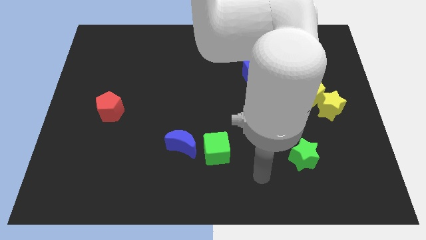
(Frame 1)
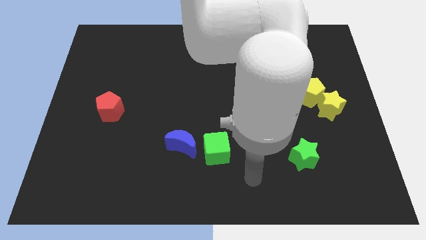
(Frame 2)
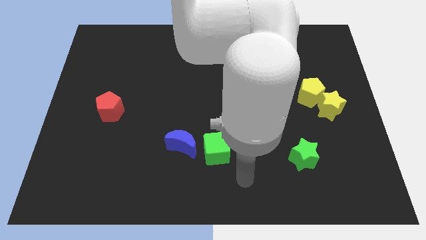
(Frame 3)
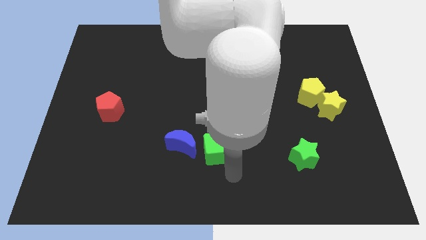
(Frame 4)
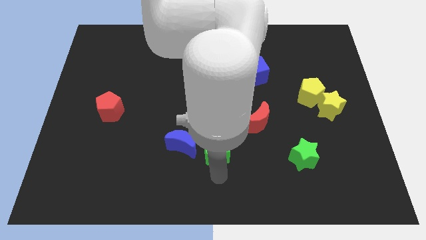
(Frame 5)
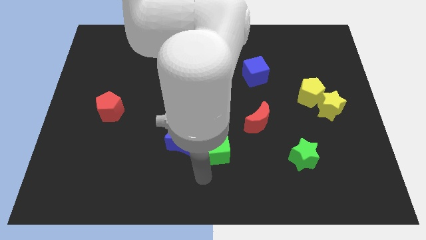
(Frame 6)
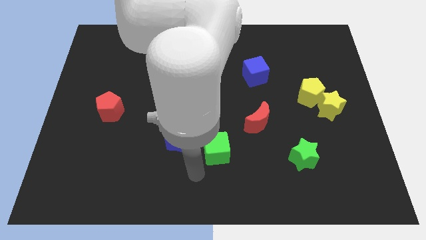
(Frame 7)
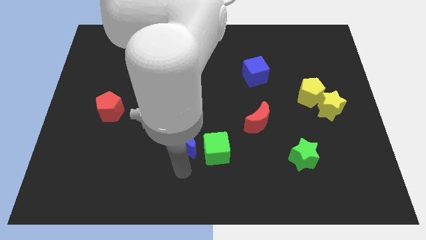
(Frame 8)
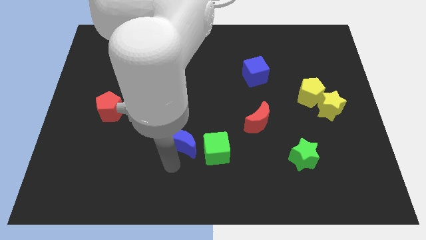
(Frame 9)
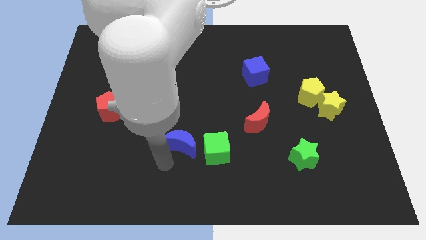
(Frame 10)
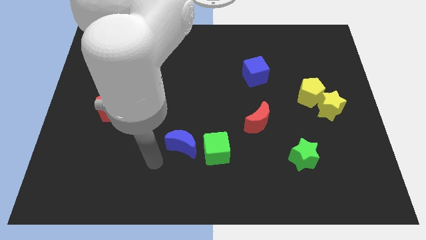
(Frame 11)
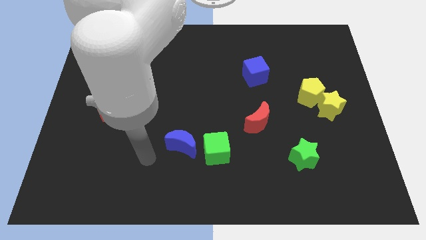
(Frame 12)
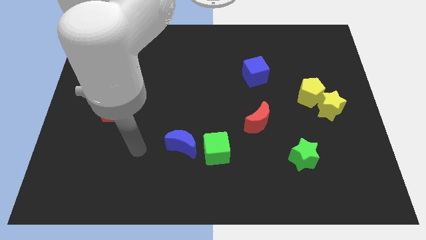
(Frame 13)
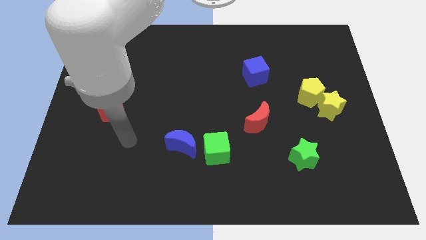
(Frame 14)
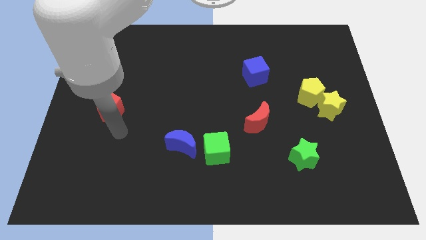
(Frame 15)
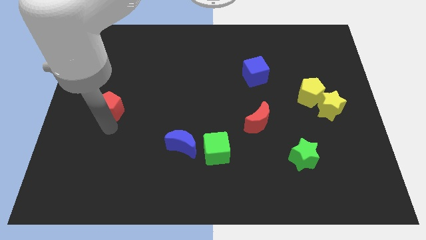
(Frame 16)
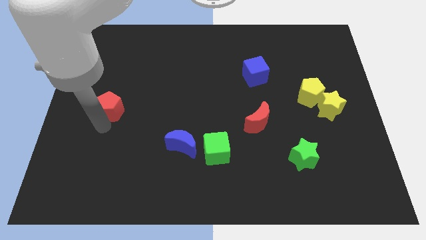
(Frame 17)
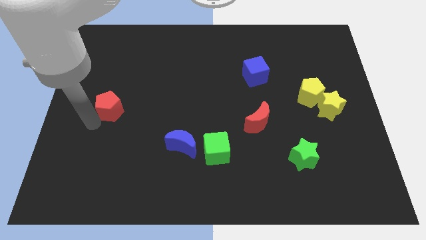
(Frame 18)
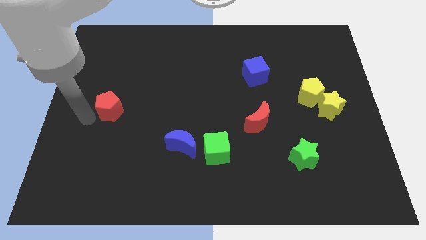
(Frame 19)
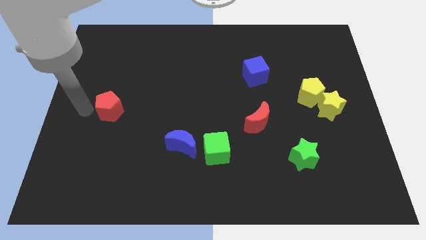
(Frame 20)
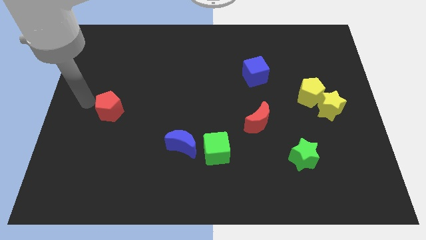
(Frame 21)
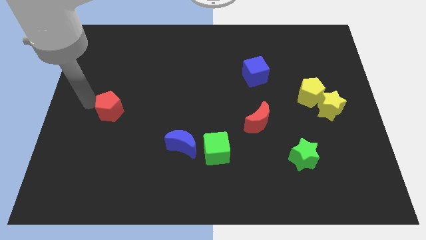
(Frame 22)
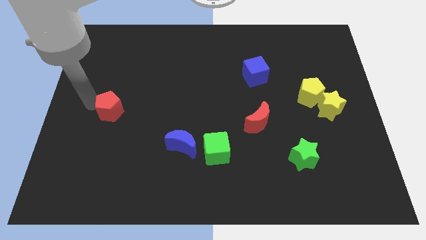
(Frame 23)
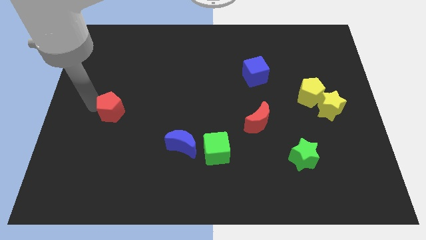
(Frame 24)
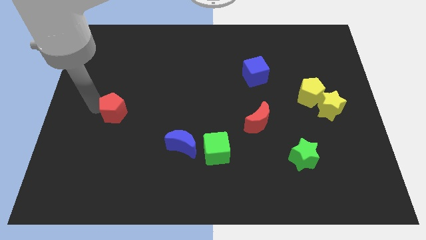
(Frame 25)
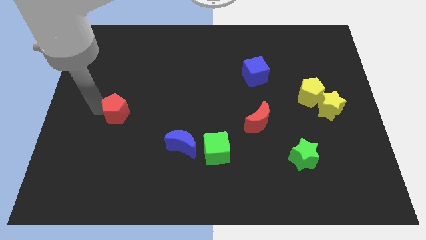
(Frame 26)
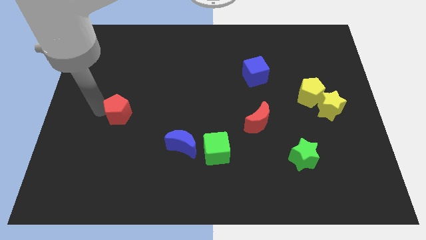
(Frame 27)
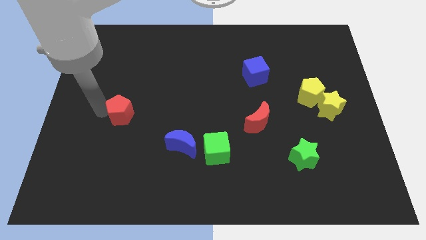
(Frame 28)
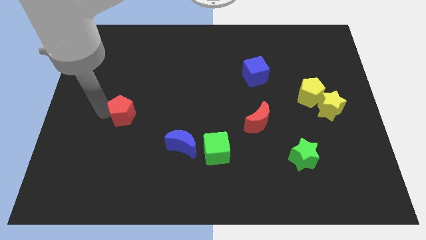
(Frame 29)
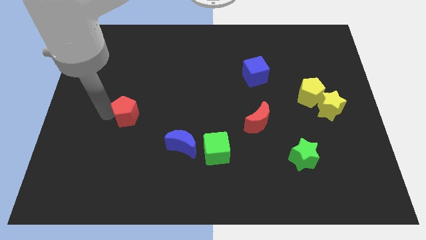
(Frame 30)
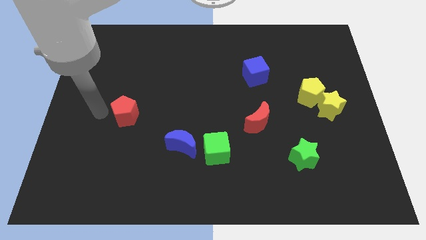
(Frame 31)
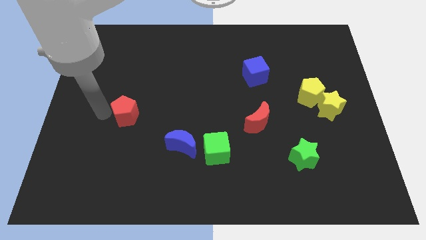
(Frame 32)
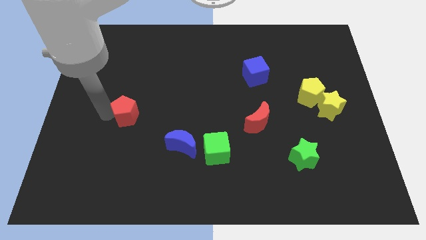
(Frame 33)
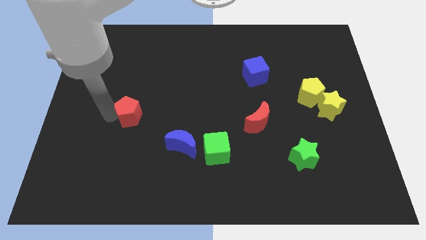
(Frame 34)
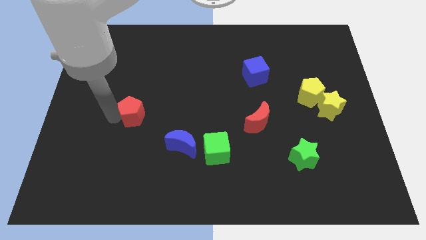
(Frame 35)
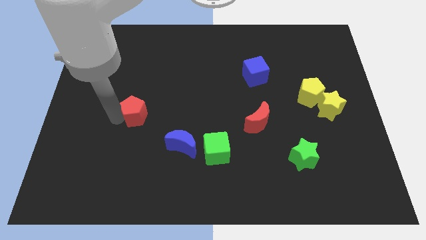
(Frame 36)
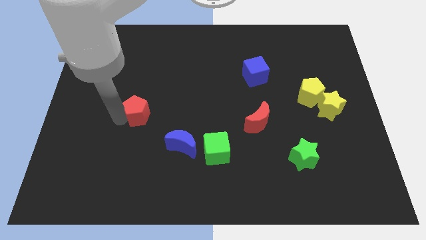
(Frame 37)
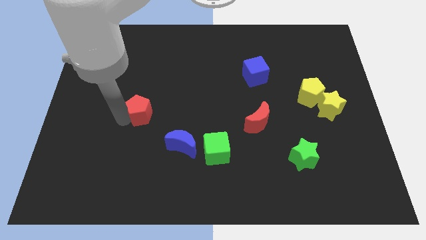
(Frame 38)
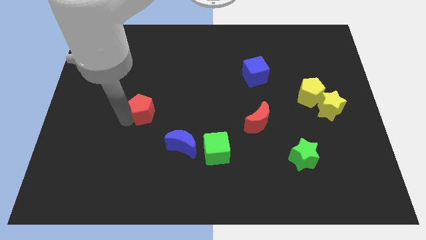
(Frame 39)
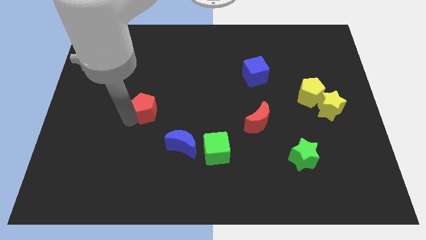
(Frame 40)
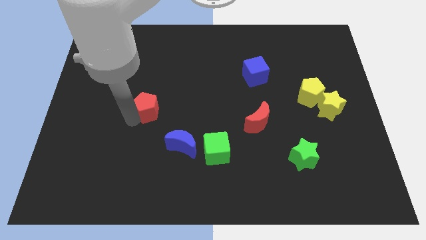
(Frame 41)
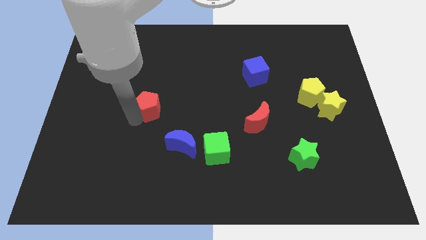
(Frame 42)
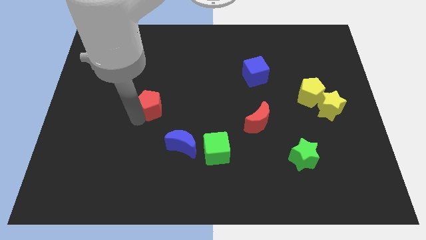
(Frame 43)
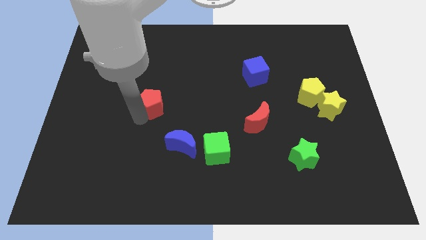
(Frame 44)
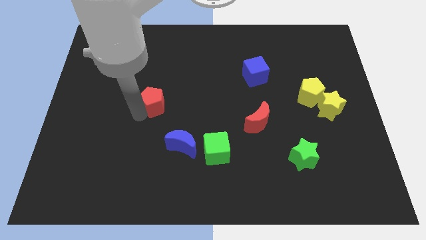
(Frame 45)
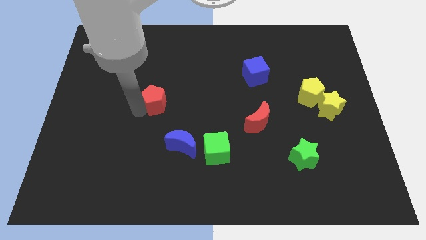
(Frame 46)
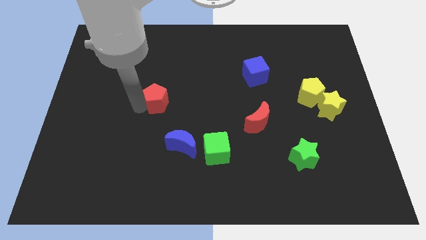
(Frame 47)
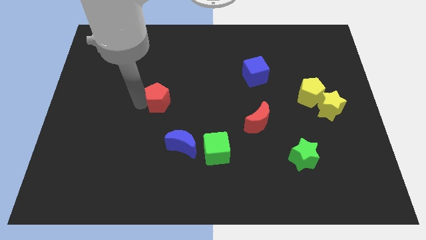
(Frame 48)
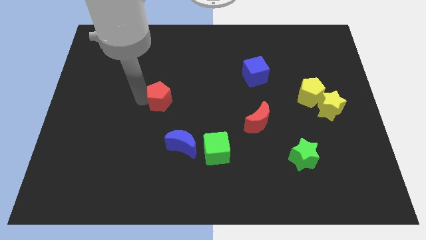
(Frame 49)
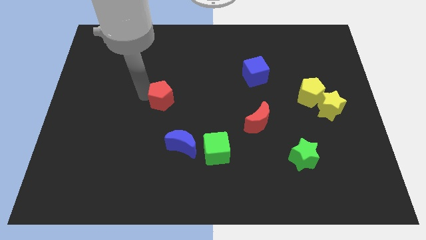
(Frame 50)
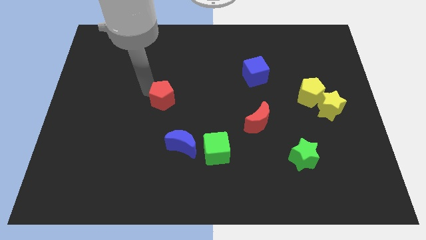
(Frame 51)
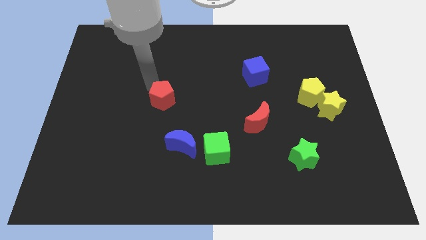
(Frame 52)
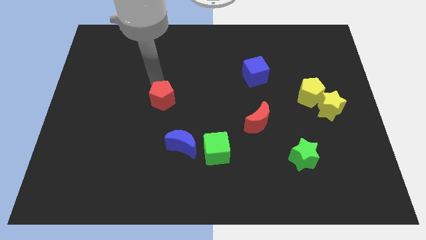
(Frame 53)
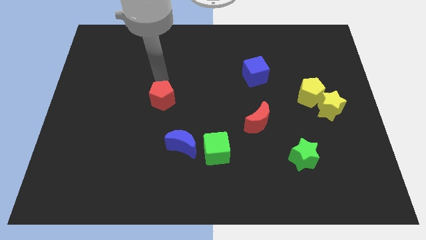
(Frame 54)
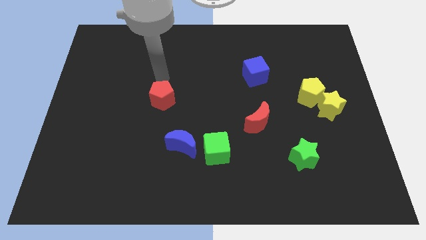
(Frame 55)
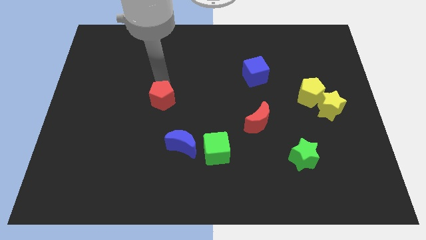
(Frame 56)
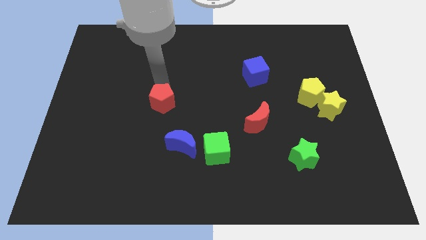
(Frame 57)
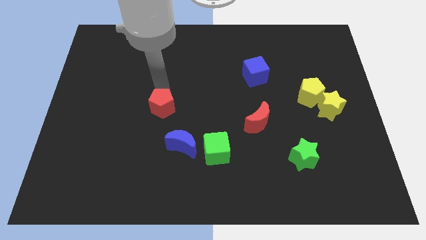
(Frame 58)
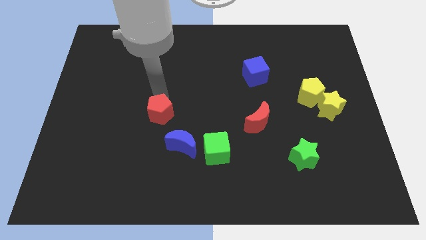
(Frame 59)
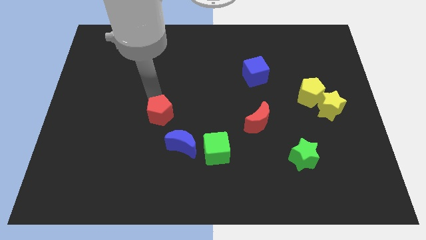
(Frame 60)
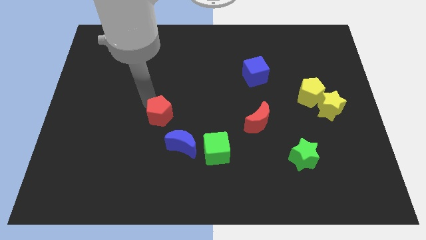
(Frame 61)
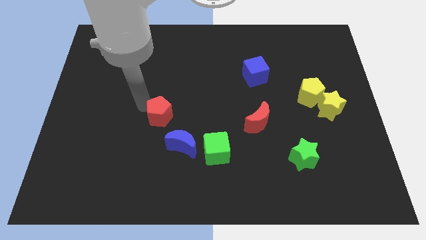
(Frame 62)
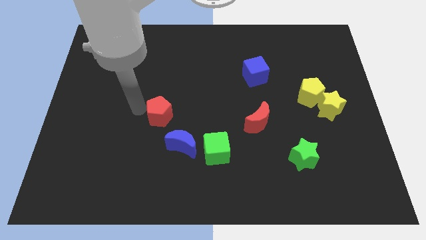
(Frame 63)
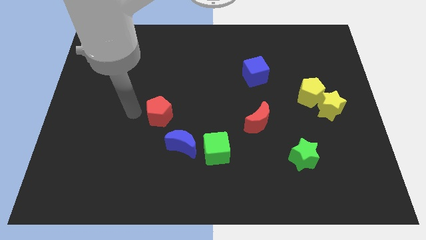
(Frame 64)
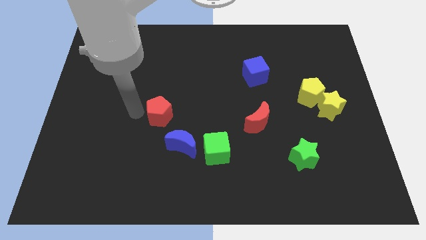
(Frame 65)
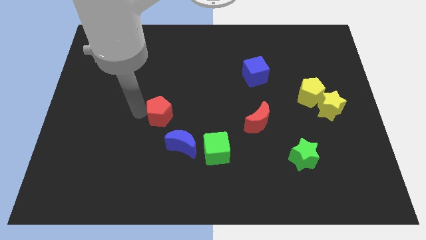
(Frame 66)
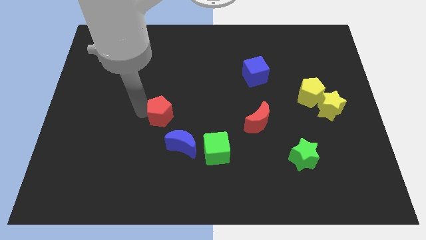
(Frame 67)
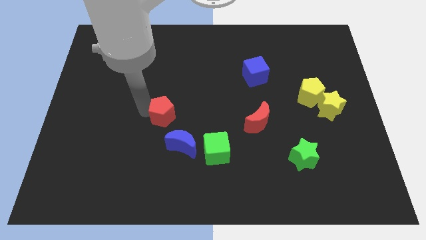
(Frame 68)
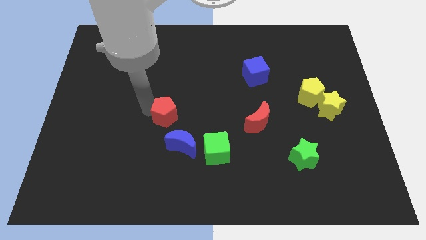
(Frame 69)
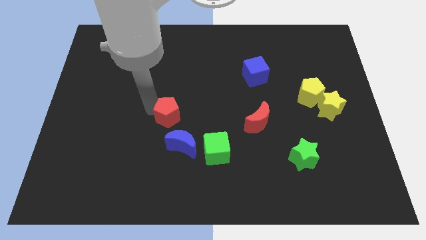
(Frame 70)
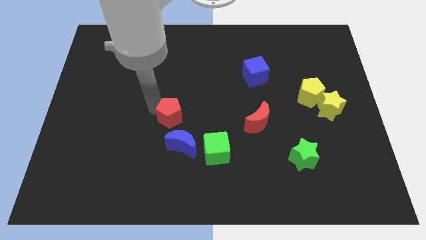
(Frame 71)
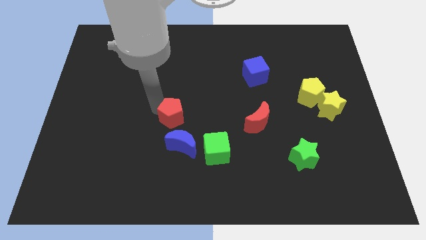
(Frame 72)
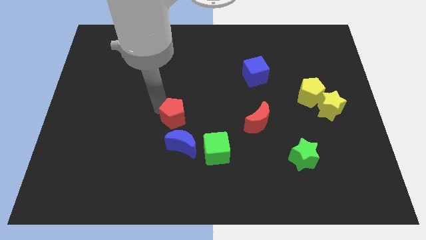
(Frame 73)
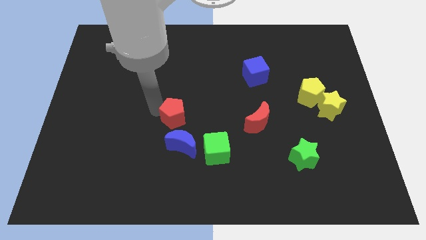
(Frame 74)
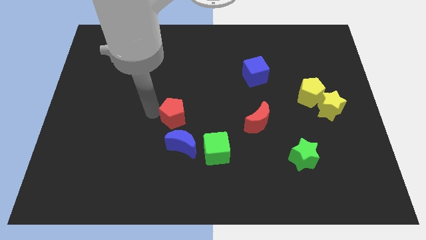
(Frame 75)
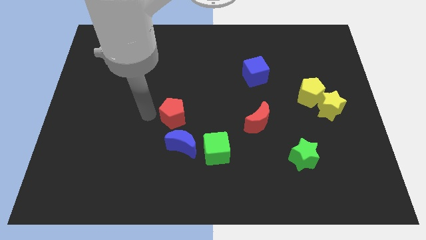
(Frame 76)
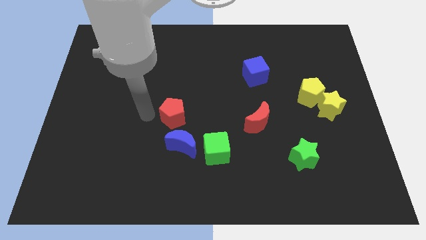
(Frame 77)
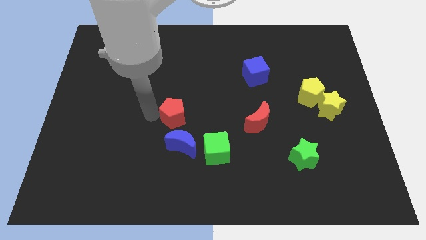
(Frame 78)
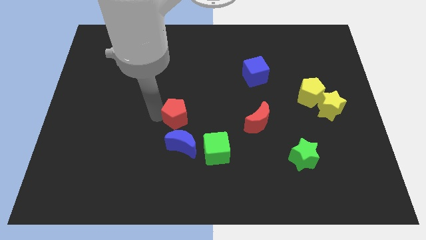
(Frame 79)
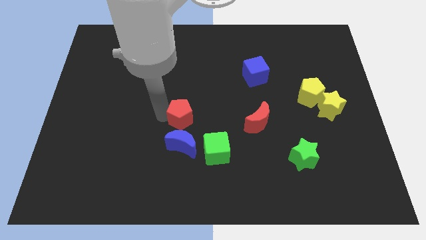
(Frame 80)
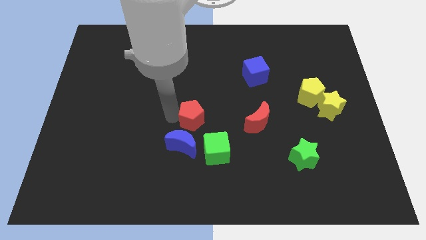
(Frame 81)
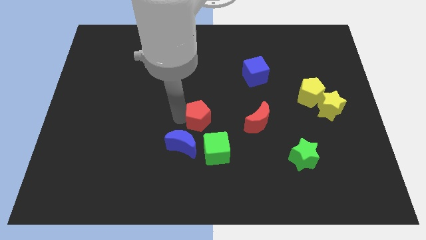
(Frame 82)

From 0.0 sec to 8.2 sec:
move the red pentagon to the right

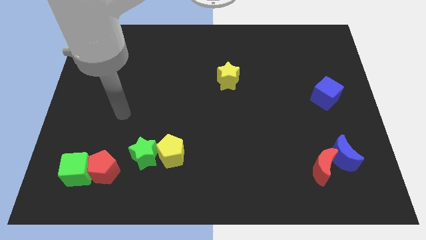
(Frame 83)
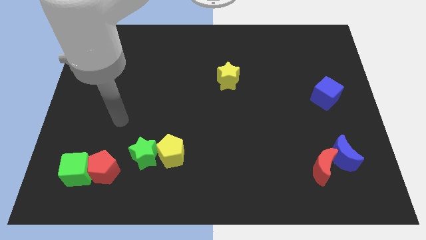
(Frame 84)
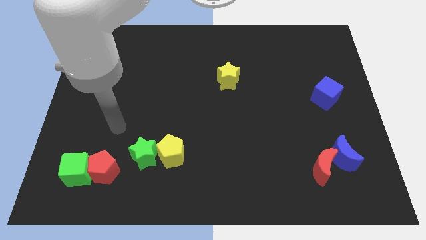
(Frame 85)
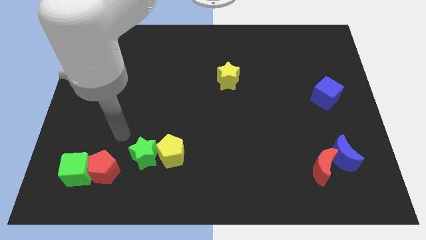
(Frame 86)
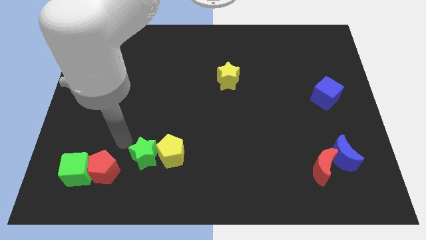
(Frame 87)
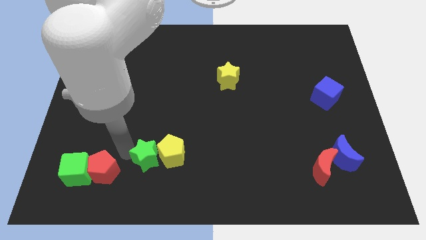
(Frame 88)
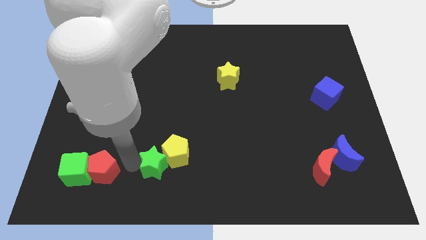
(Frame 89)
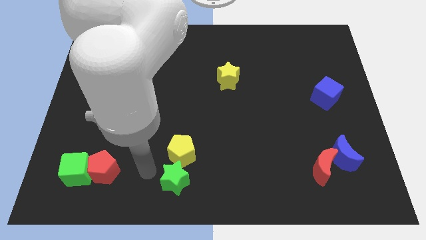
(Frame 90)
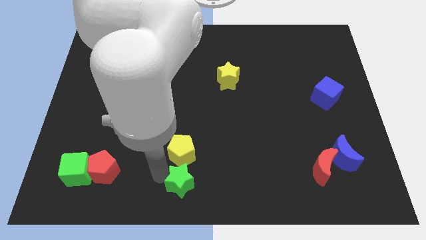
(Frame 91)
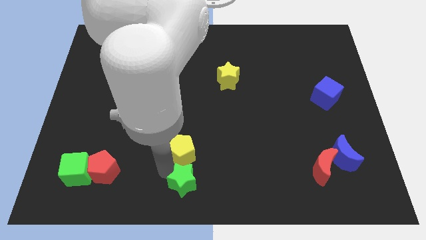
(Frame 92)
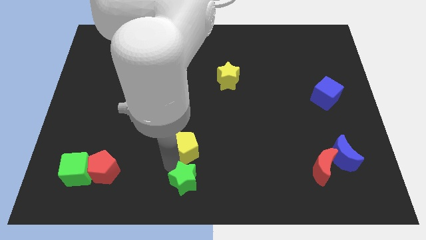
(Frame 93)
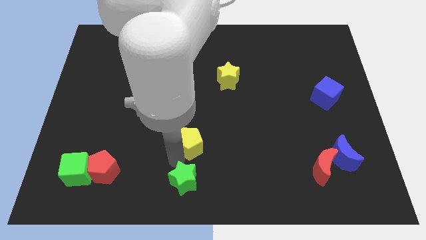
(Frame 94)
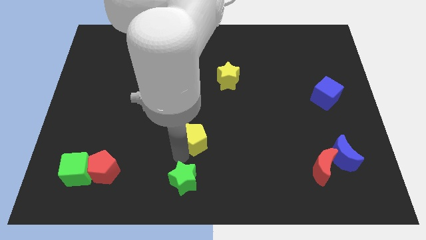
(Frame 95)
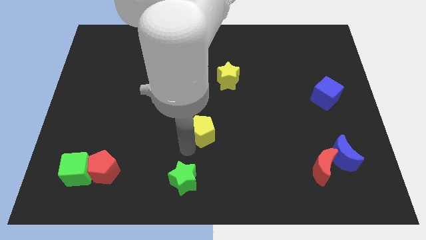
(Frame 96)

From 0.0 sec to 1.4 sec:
slightly slide the yellow pentagon diagonally upwards and right
